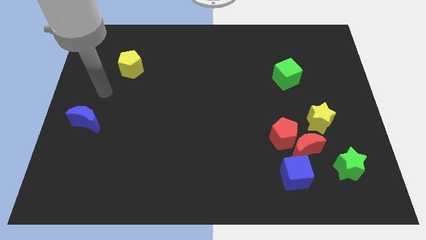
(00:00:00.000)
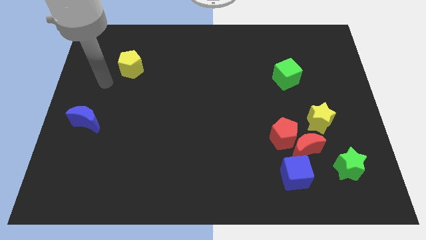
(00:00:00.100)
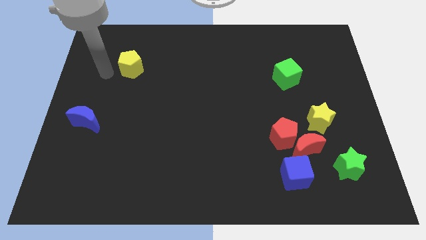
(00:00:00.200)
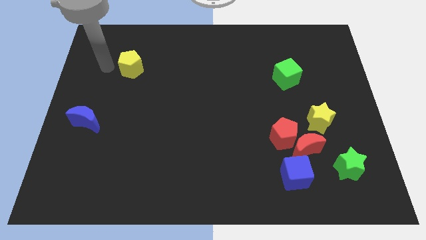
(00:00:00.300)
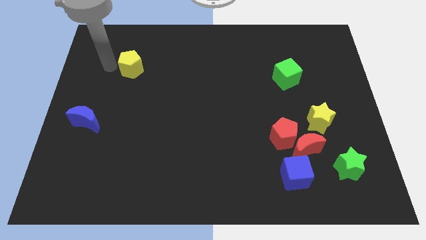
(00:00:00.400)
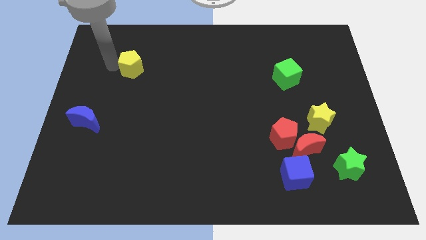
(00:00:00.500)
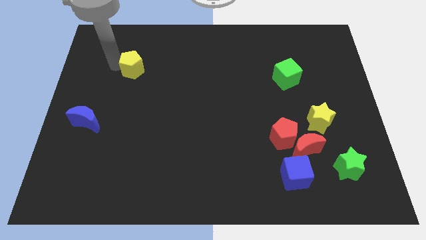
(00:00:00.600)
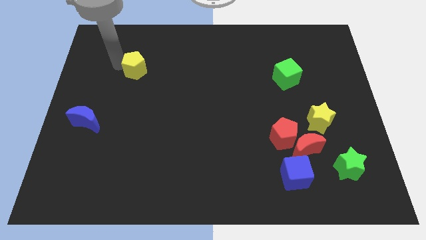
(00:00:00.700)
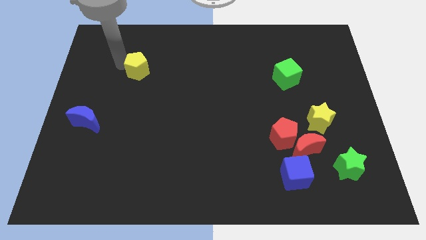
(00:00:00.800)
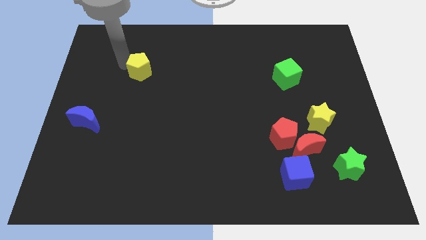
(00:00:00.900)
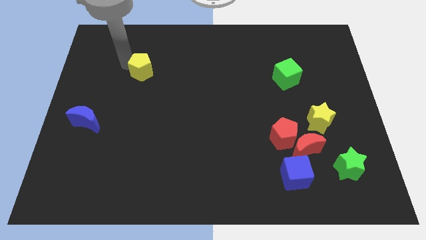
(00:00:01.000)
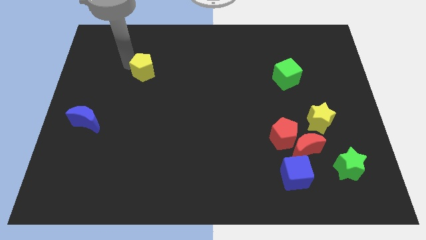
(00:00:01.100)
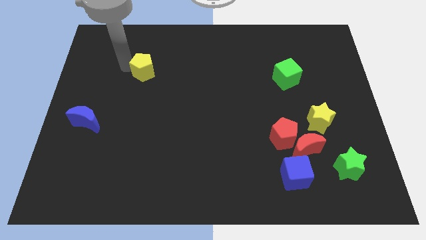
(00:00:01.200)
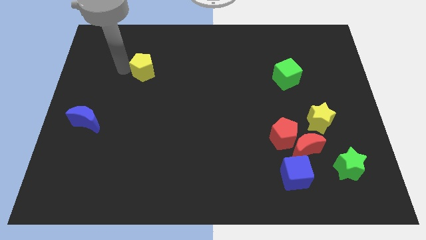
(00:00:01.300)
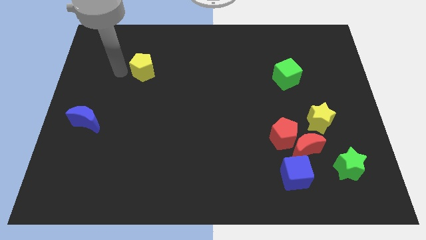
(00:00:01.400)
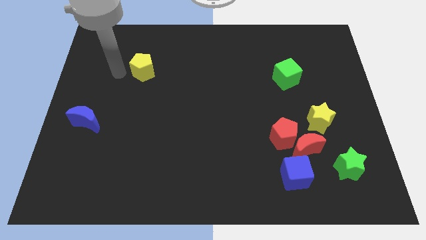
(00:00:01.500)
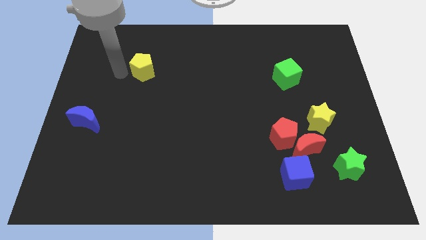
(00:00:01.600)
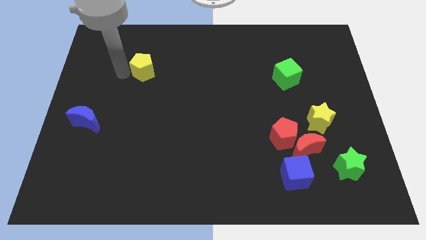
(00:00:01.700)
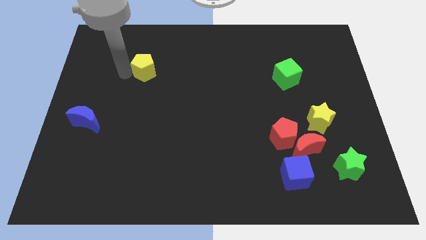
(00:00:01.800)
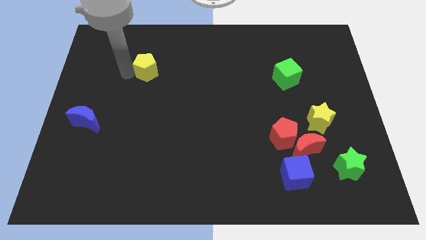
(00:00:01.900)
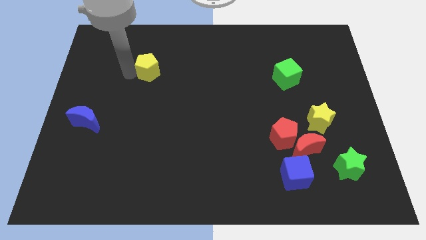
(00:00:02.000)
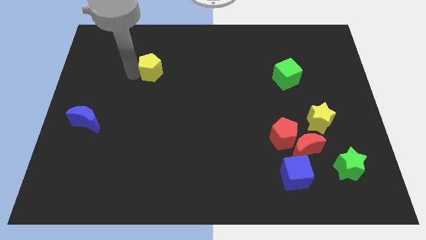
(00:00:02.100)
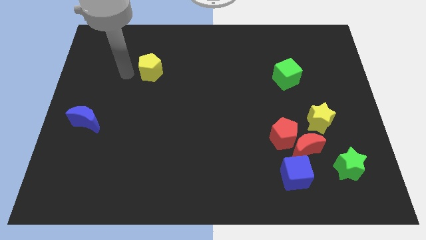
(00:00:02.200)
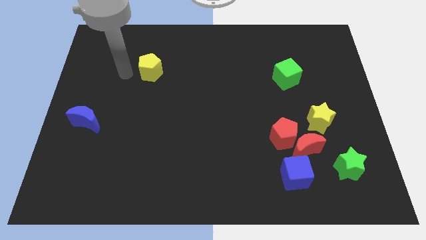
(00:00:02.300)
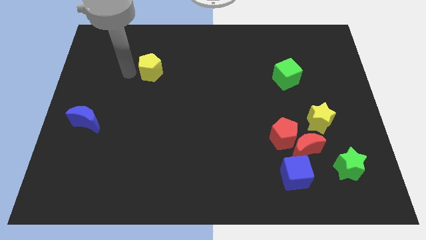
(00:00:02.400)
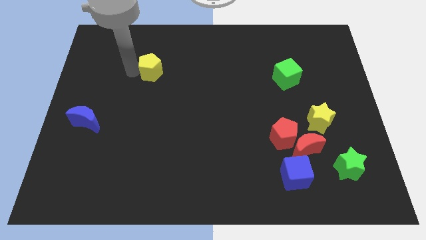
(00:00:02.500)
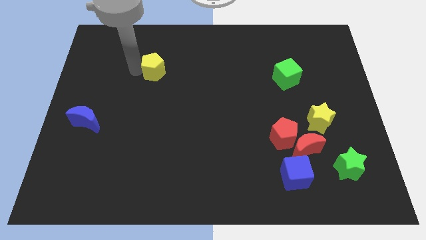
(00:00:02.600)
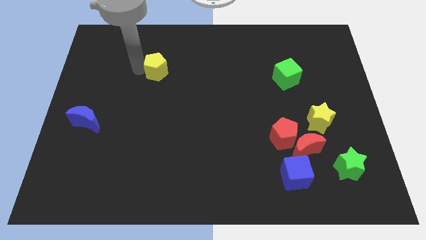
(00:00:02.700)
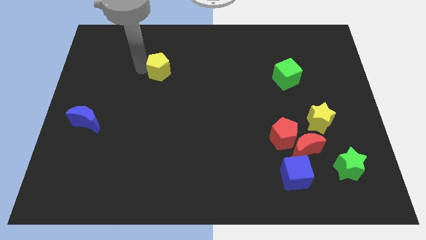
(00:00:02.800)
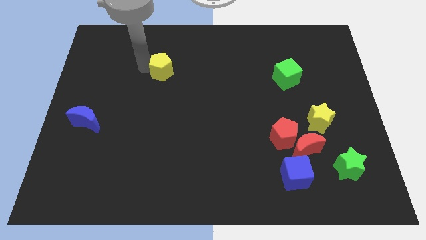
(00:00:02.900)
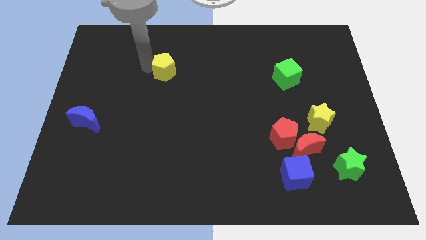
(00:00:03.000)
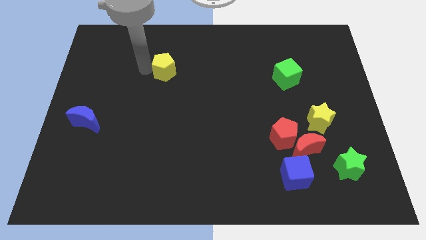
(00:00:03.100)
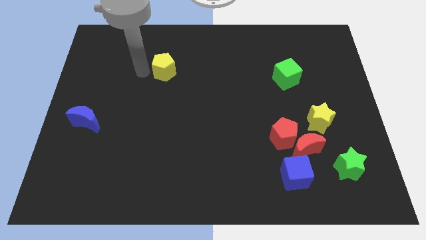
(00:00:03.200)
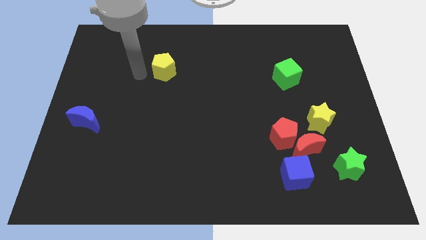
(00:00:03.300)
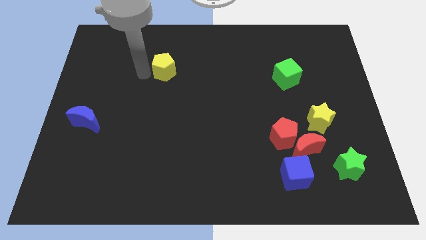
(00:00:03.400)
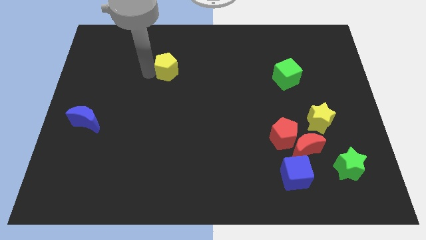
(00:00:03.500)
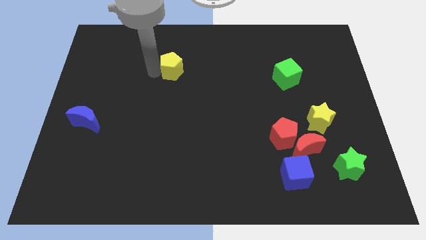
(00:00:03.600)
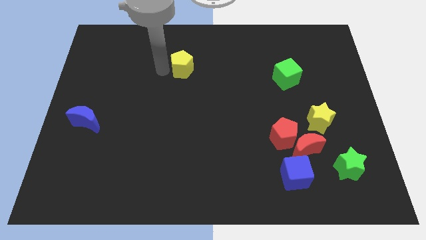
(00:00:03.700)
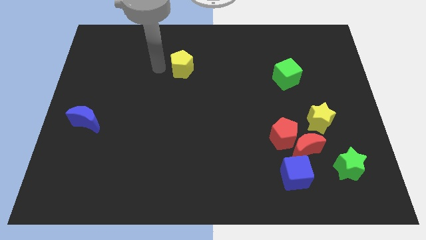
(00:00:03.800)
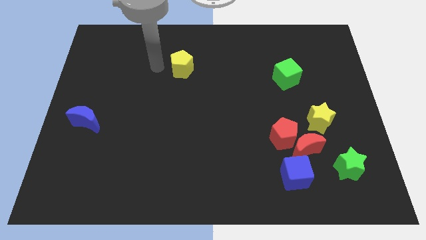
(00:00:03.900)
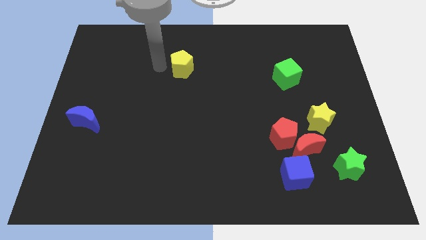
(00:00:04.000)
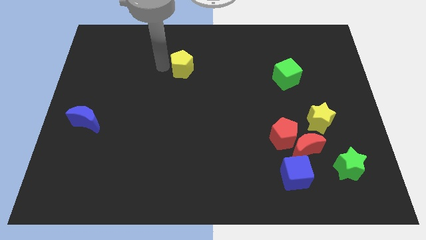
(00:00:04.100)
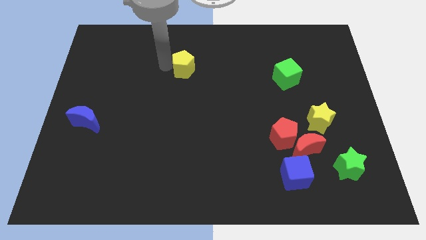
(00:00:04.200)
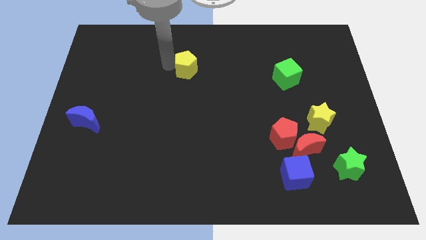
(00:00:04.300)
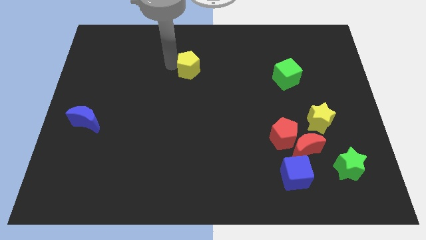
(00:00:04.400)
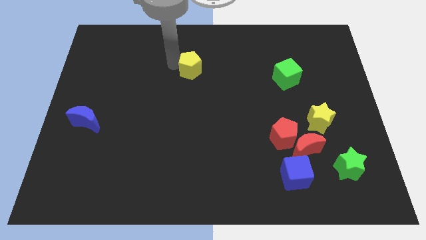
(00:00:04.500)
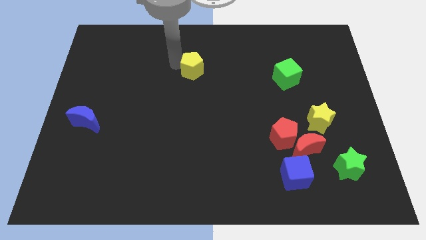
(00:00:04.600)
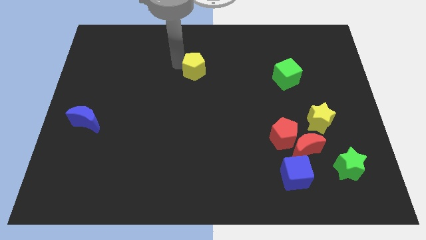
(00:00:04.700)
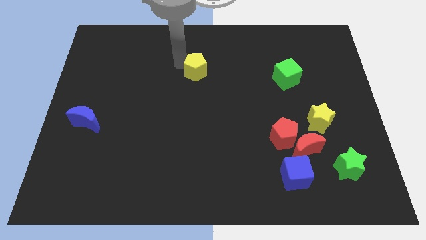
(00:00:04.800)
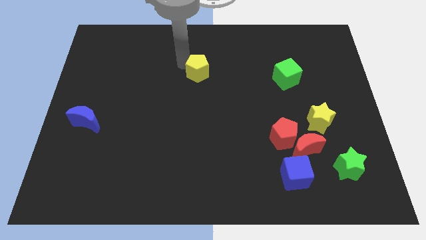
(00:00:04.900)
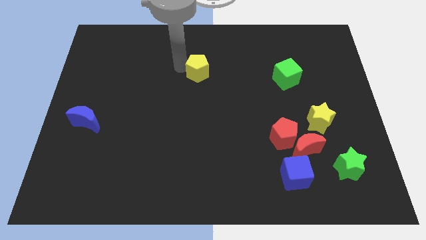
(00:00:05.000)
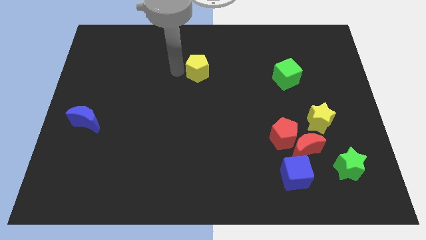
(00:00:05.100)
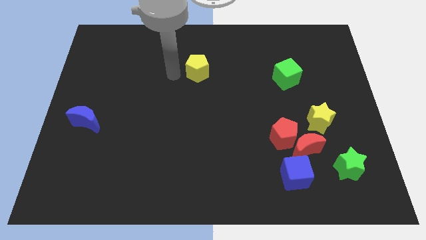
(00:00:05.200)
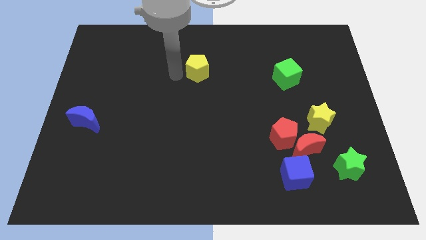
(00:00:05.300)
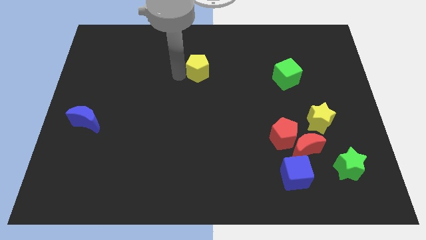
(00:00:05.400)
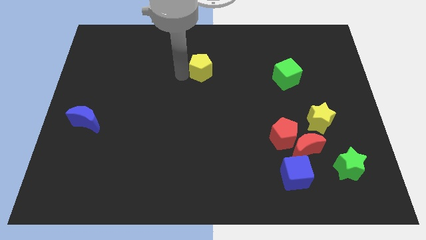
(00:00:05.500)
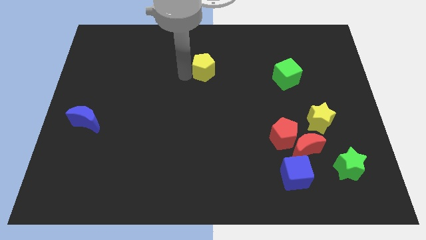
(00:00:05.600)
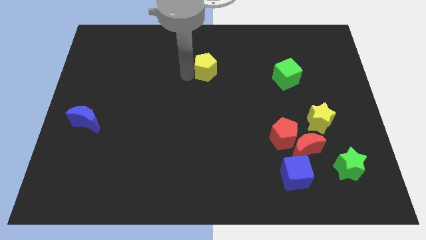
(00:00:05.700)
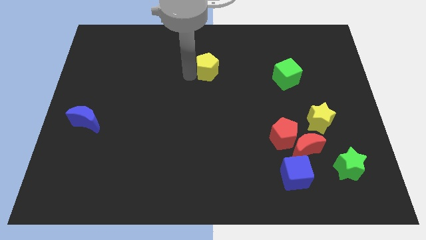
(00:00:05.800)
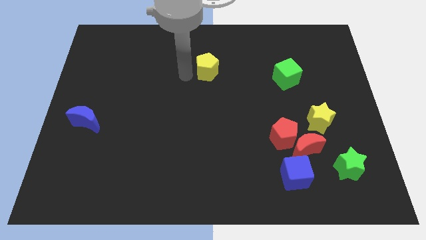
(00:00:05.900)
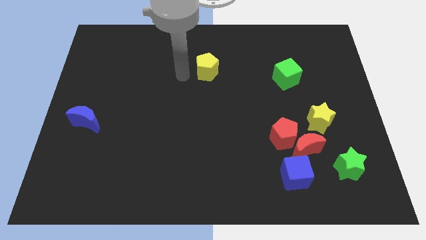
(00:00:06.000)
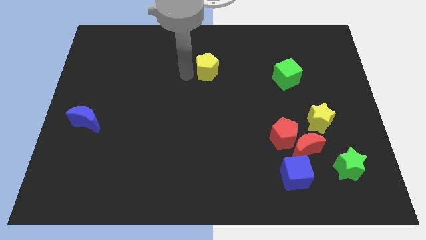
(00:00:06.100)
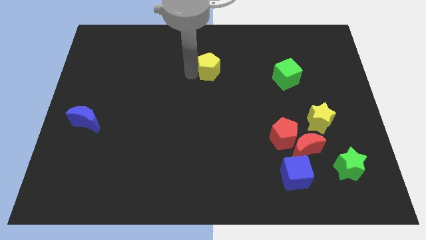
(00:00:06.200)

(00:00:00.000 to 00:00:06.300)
slide the yellow pentagon to the right

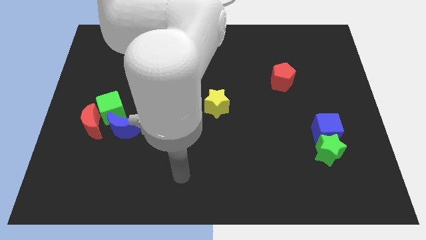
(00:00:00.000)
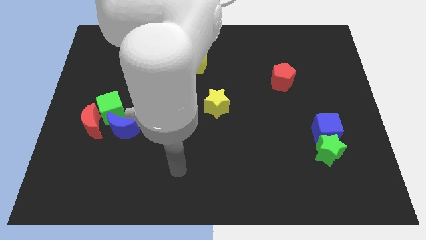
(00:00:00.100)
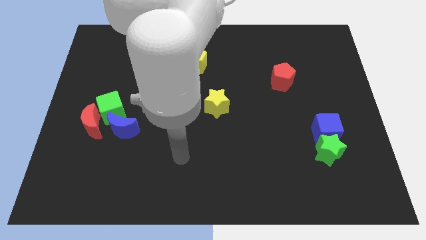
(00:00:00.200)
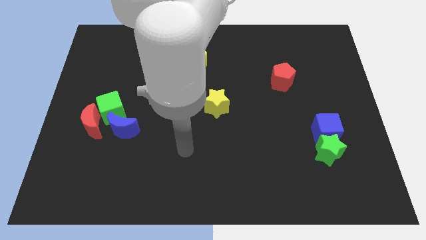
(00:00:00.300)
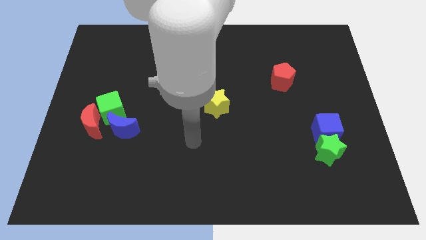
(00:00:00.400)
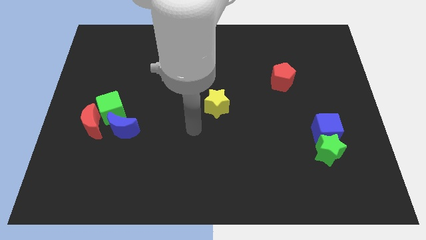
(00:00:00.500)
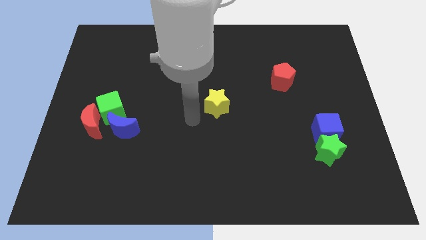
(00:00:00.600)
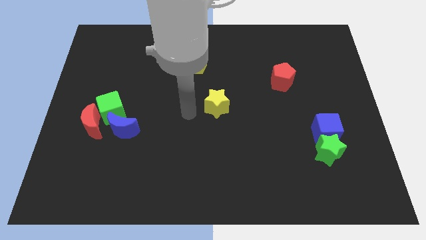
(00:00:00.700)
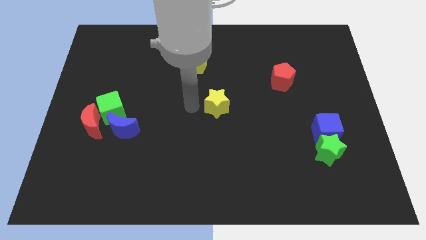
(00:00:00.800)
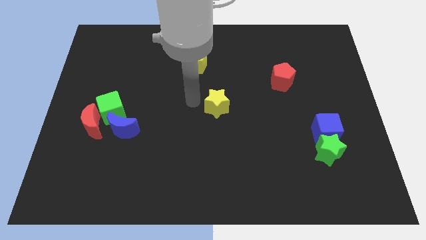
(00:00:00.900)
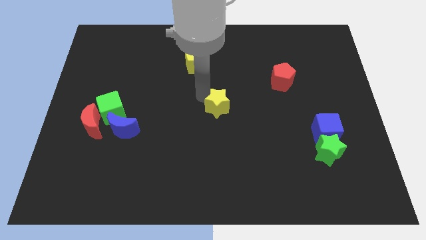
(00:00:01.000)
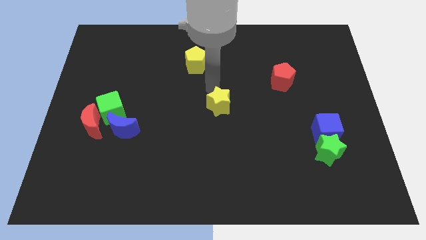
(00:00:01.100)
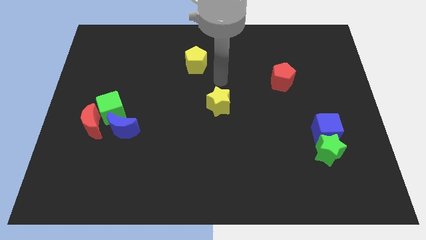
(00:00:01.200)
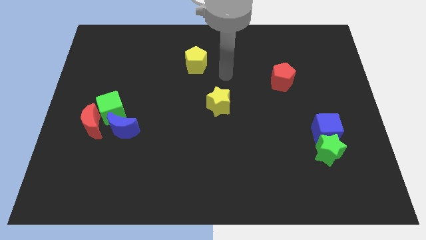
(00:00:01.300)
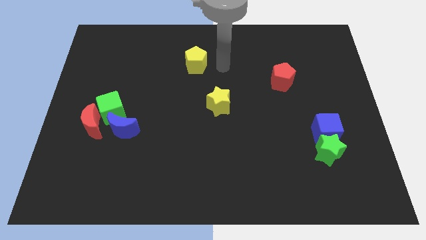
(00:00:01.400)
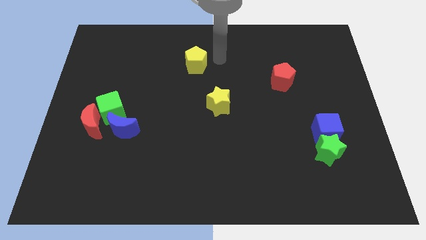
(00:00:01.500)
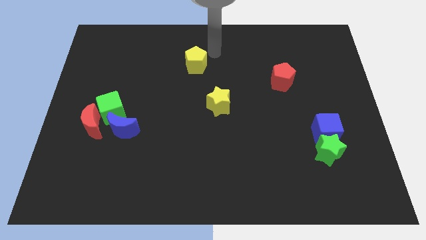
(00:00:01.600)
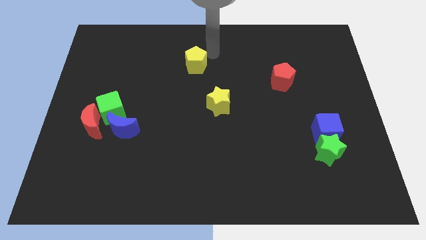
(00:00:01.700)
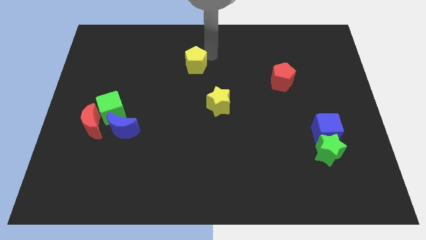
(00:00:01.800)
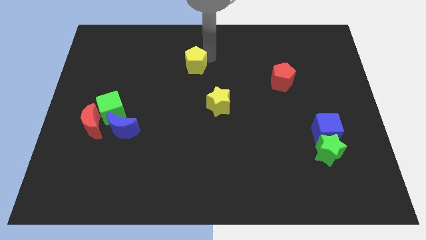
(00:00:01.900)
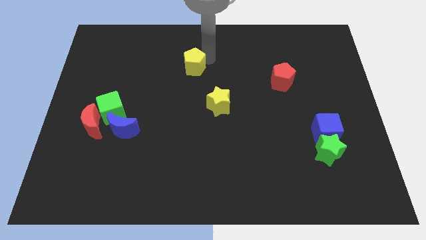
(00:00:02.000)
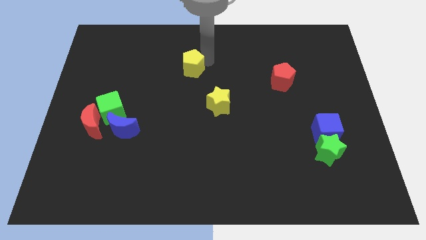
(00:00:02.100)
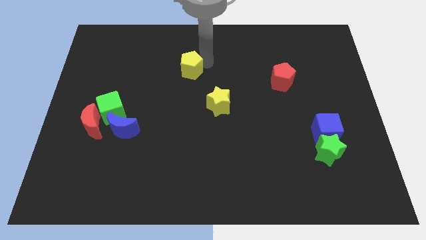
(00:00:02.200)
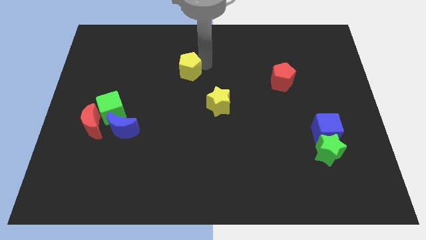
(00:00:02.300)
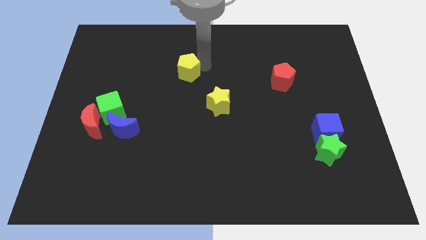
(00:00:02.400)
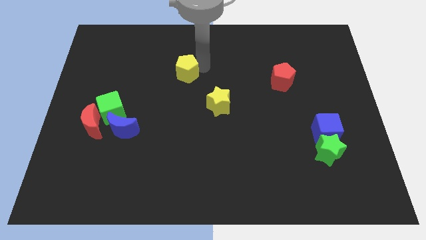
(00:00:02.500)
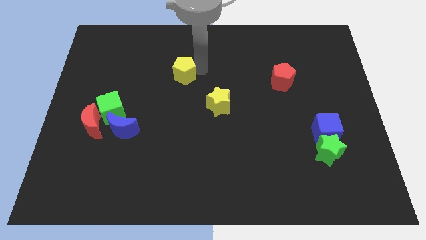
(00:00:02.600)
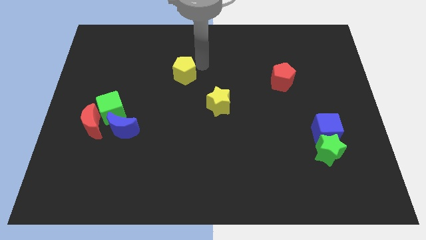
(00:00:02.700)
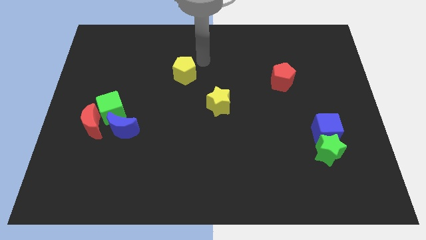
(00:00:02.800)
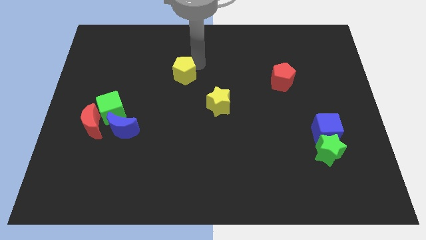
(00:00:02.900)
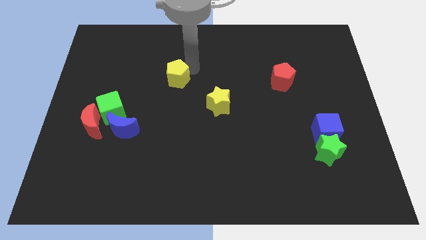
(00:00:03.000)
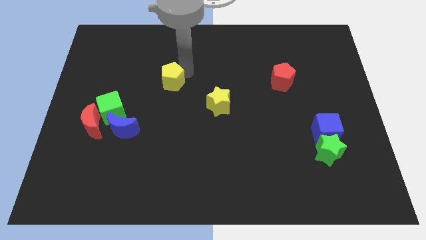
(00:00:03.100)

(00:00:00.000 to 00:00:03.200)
slightly slide the yellow pentagon downwards and to the left diagonally
